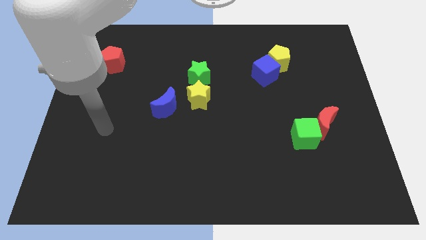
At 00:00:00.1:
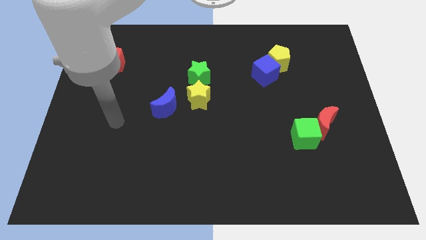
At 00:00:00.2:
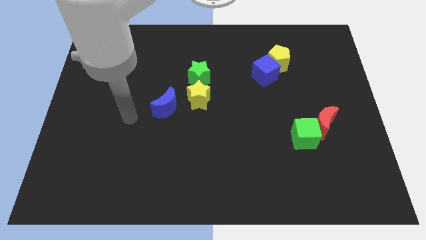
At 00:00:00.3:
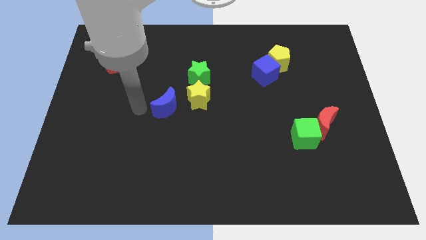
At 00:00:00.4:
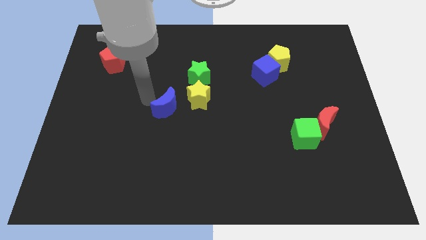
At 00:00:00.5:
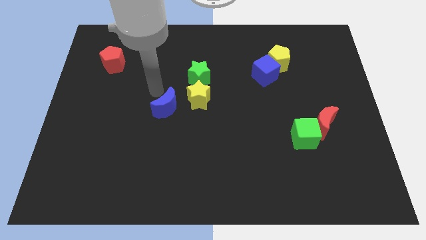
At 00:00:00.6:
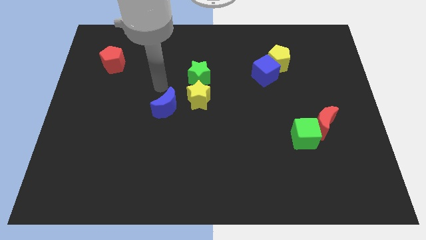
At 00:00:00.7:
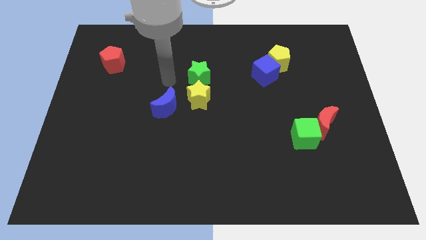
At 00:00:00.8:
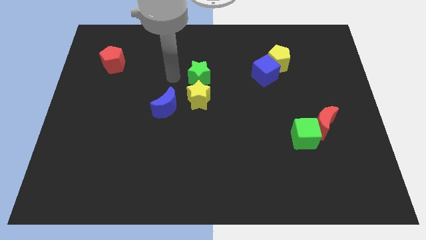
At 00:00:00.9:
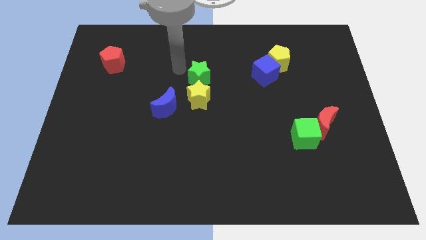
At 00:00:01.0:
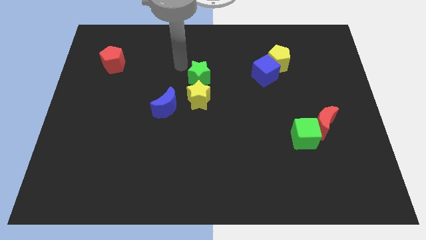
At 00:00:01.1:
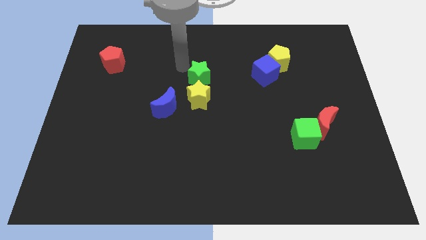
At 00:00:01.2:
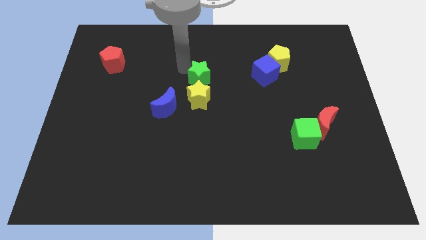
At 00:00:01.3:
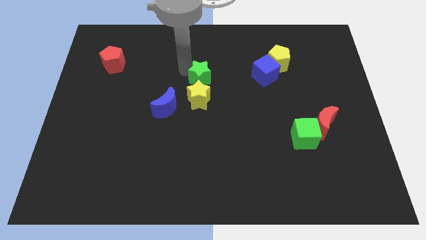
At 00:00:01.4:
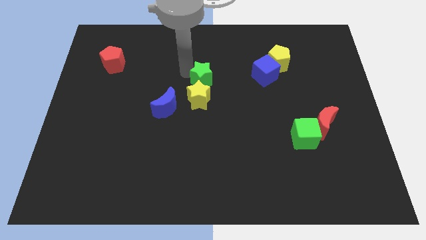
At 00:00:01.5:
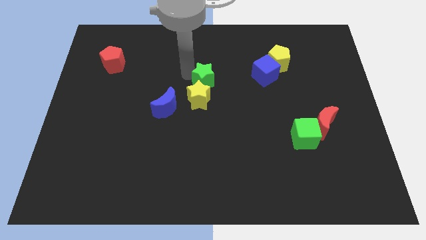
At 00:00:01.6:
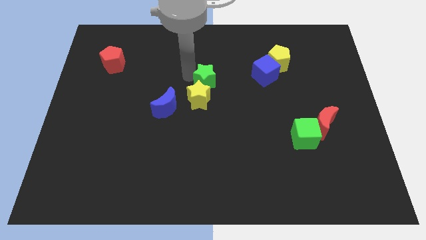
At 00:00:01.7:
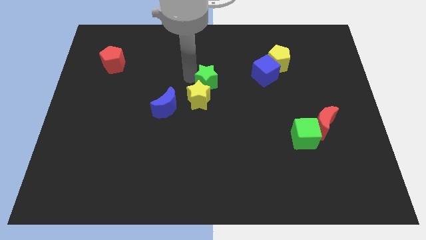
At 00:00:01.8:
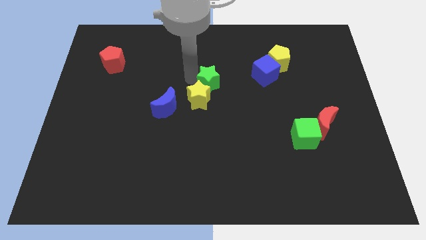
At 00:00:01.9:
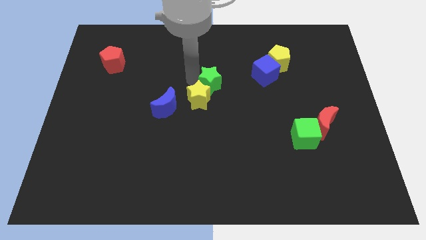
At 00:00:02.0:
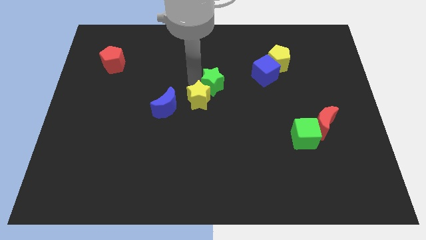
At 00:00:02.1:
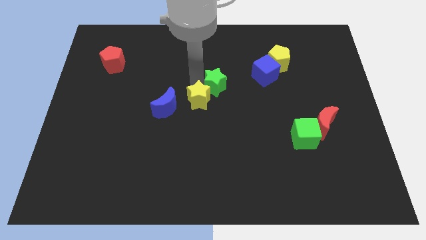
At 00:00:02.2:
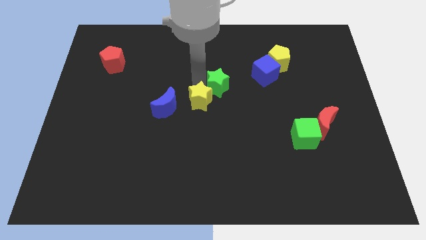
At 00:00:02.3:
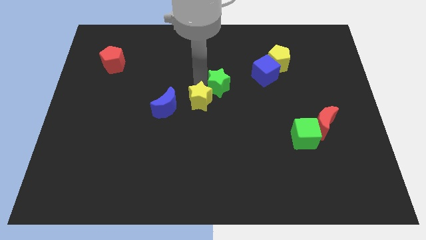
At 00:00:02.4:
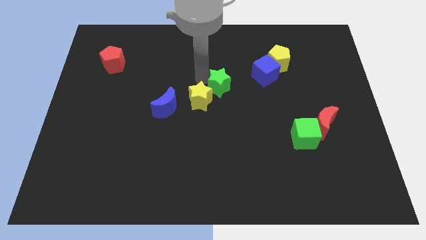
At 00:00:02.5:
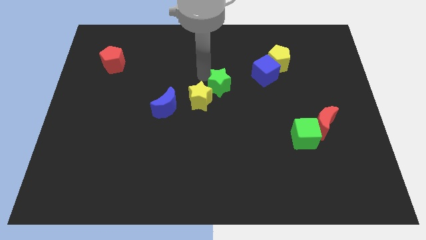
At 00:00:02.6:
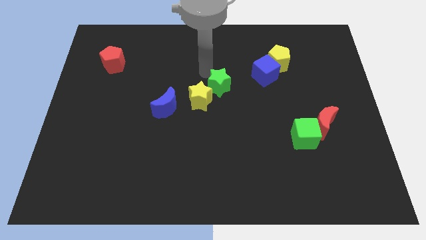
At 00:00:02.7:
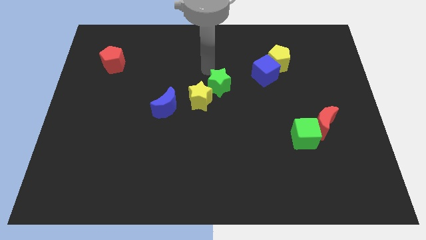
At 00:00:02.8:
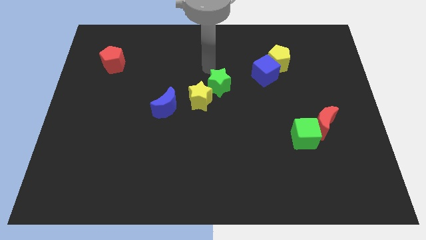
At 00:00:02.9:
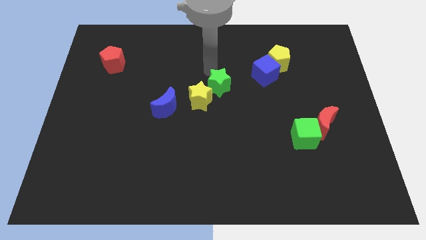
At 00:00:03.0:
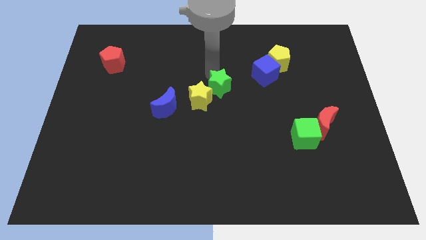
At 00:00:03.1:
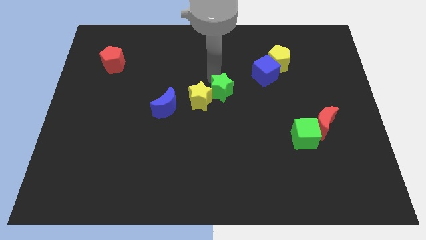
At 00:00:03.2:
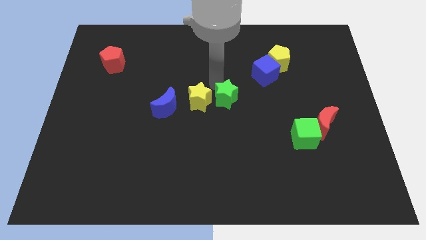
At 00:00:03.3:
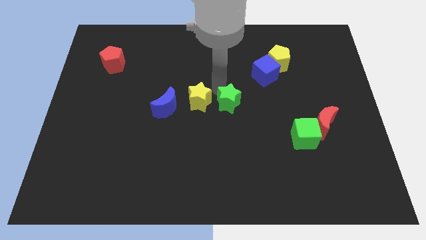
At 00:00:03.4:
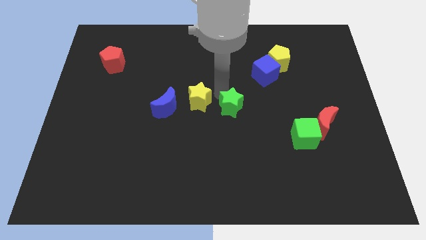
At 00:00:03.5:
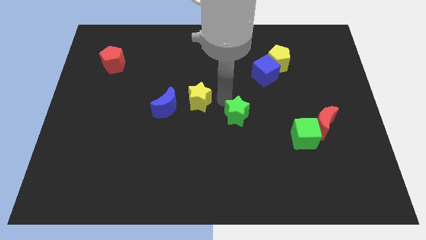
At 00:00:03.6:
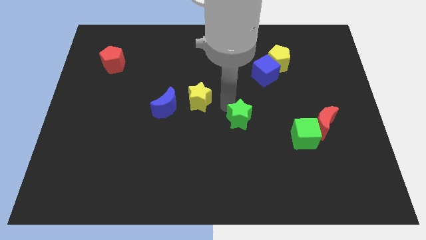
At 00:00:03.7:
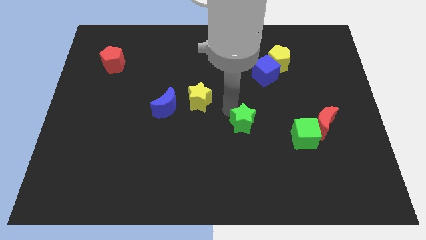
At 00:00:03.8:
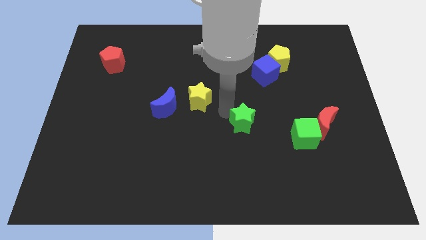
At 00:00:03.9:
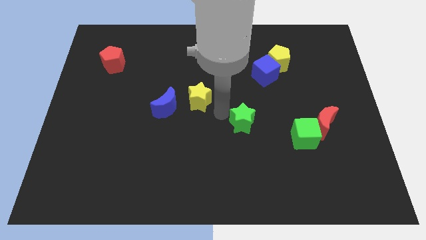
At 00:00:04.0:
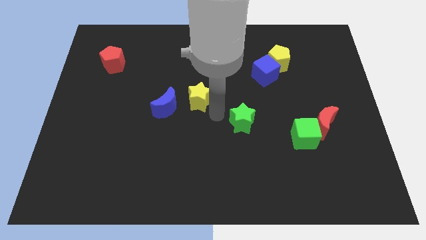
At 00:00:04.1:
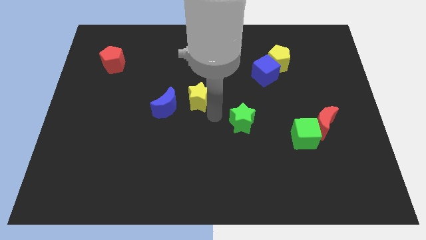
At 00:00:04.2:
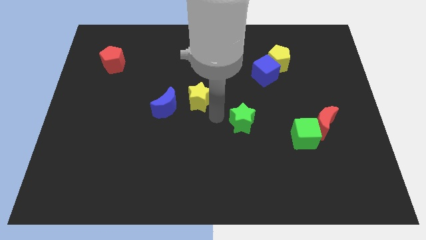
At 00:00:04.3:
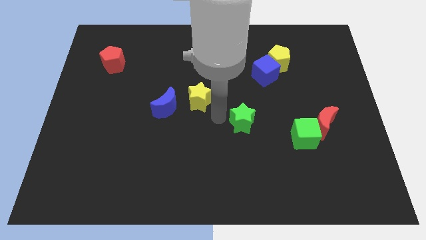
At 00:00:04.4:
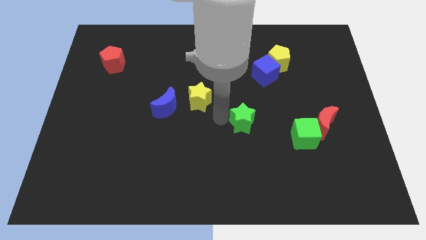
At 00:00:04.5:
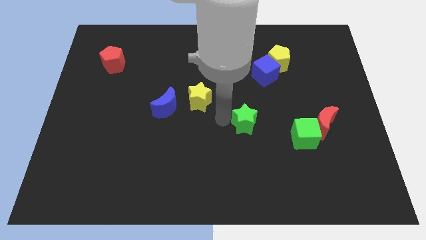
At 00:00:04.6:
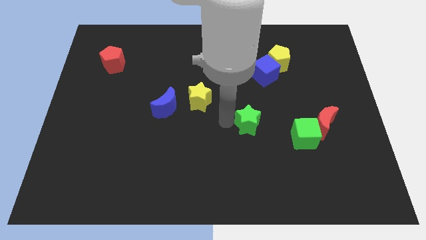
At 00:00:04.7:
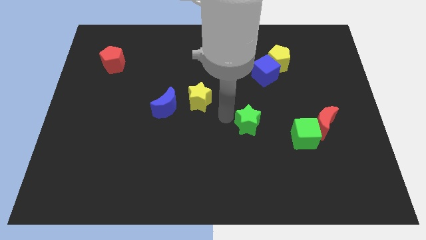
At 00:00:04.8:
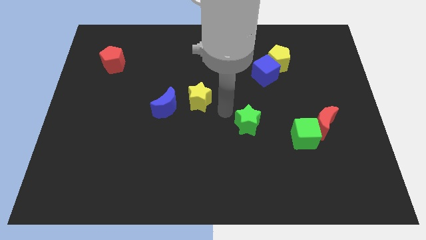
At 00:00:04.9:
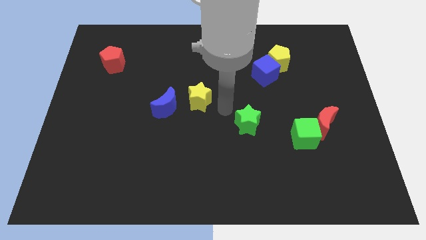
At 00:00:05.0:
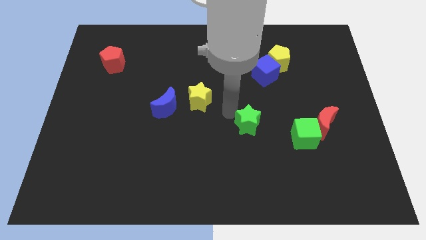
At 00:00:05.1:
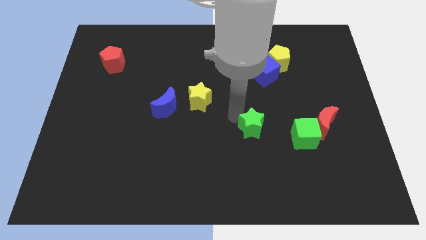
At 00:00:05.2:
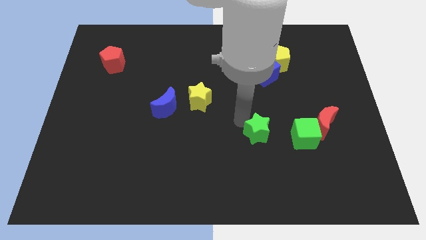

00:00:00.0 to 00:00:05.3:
move the green star diagonally downwards and right

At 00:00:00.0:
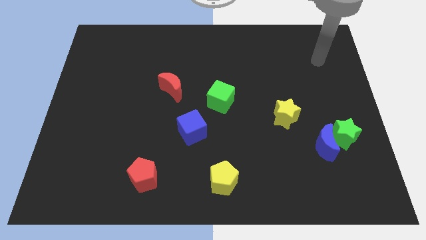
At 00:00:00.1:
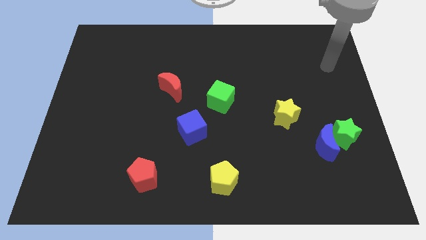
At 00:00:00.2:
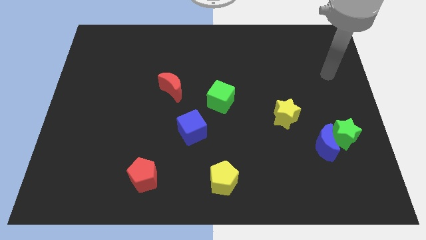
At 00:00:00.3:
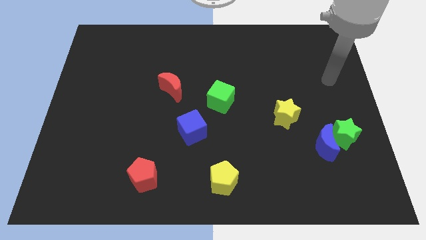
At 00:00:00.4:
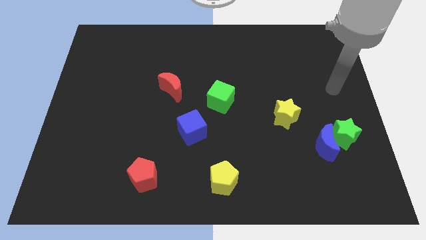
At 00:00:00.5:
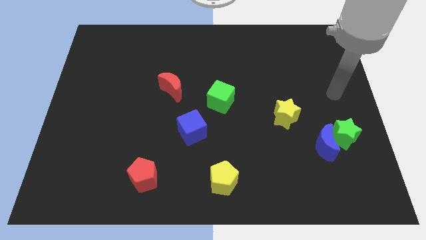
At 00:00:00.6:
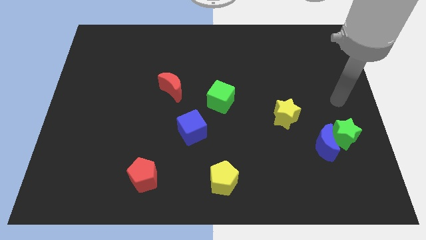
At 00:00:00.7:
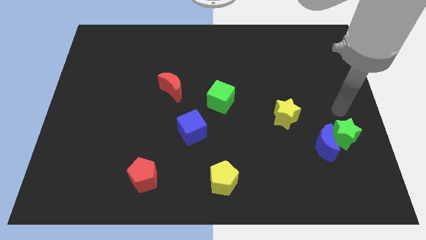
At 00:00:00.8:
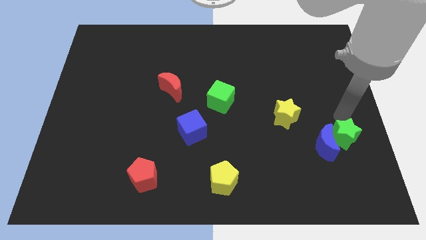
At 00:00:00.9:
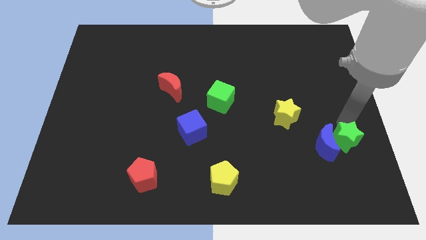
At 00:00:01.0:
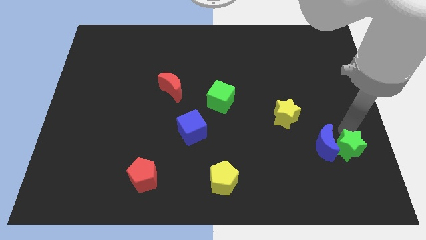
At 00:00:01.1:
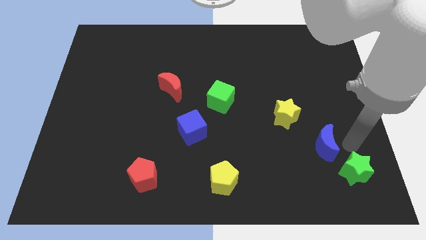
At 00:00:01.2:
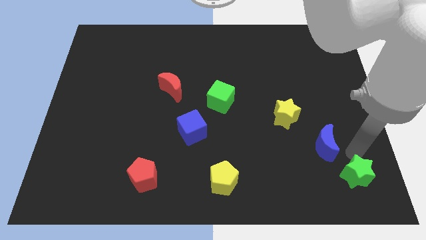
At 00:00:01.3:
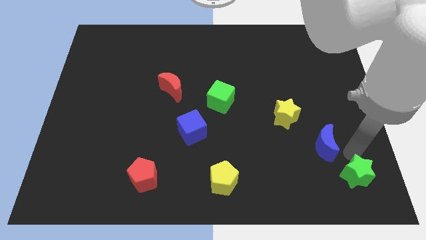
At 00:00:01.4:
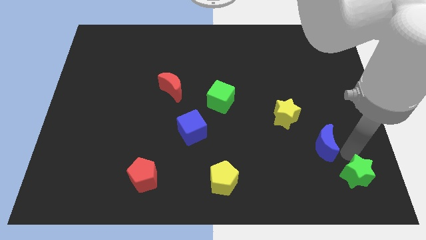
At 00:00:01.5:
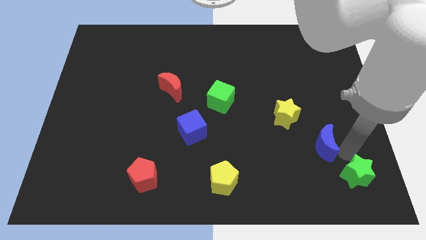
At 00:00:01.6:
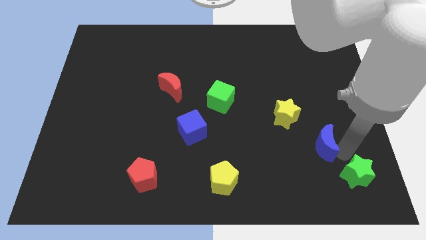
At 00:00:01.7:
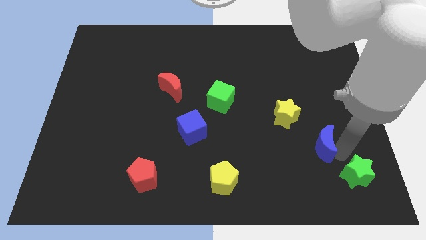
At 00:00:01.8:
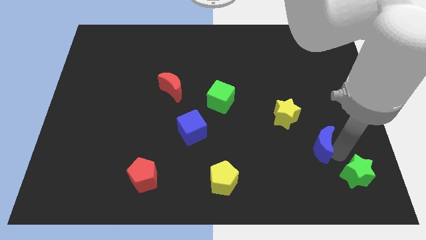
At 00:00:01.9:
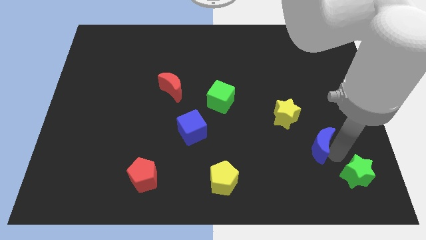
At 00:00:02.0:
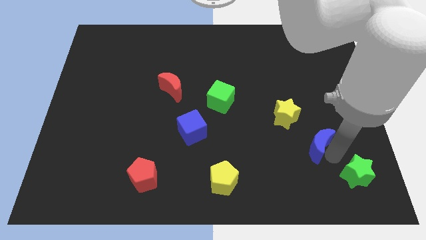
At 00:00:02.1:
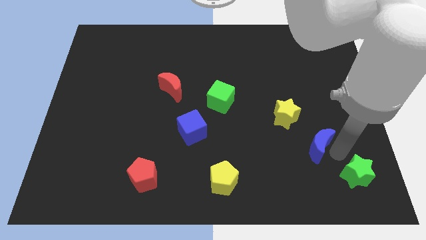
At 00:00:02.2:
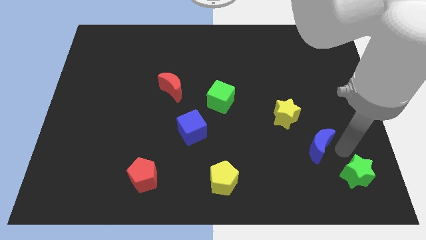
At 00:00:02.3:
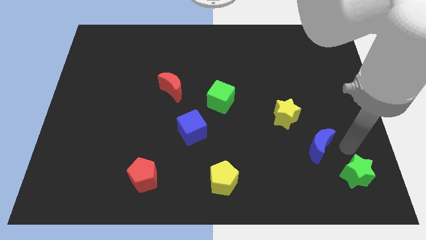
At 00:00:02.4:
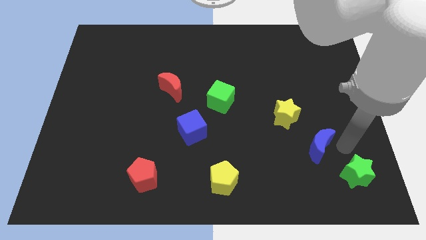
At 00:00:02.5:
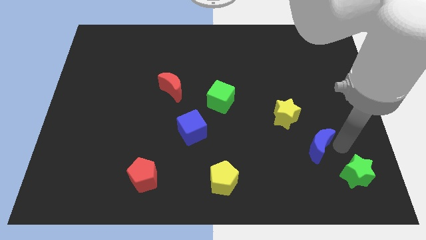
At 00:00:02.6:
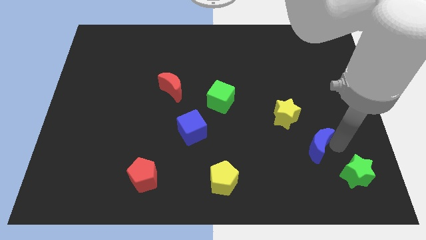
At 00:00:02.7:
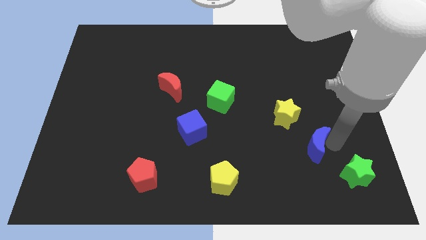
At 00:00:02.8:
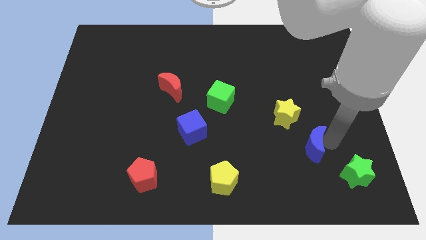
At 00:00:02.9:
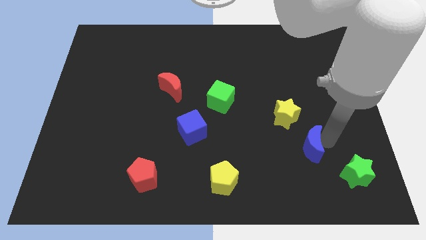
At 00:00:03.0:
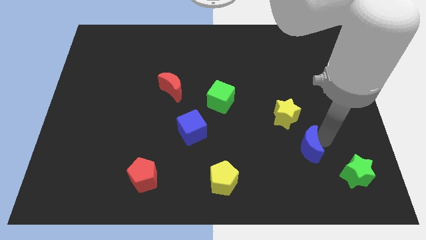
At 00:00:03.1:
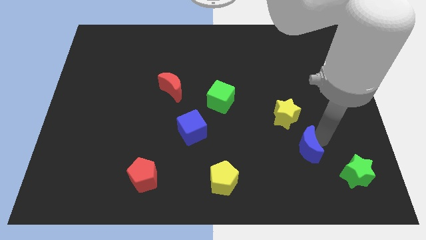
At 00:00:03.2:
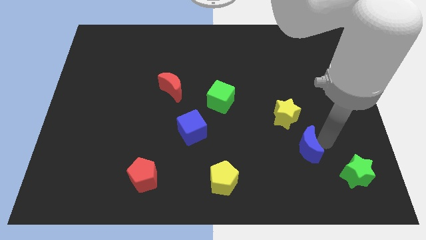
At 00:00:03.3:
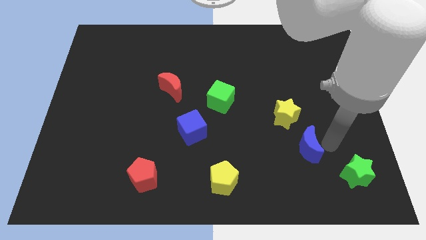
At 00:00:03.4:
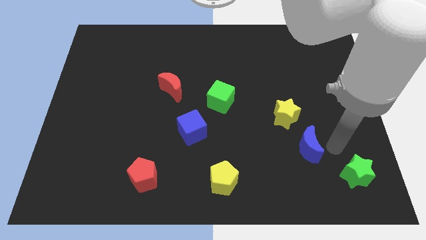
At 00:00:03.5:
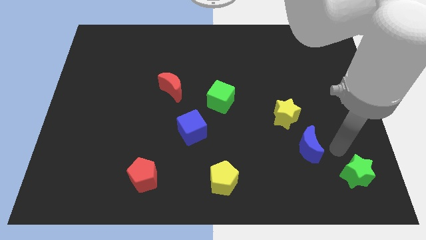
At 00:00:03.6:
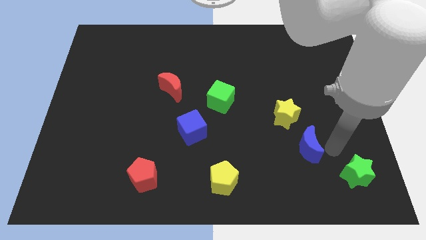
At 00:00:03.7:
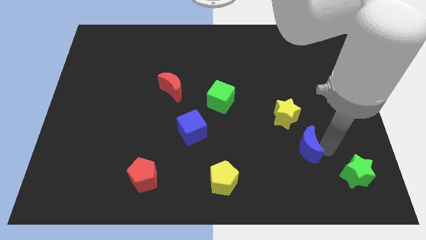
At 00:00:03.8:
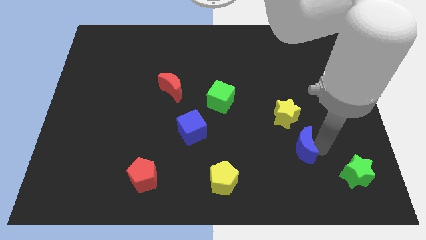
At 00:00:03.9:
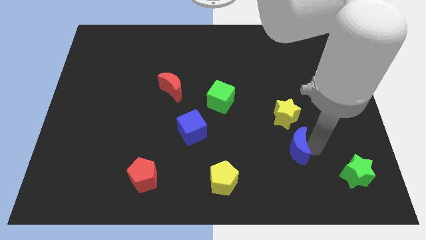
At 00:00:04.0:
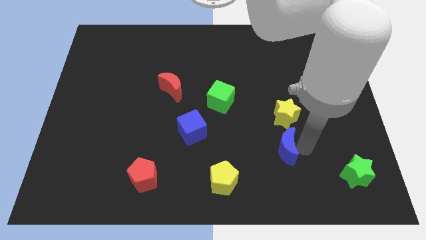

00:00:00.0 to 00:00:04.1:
push the blue moon a bit left
